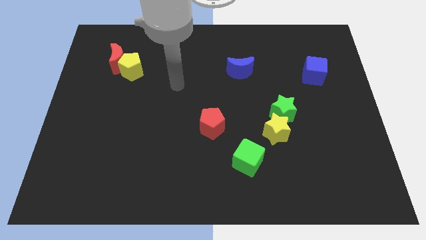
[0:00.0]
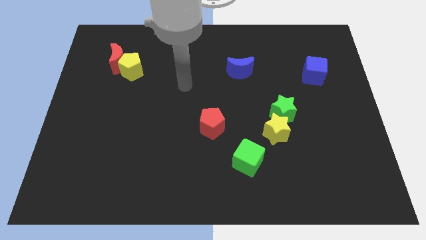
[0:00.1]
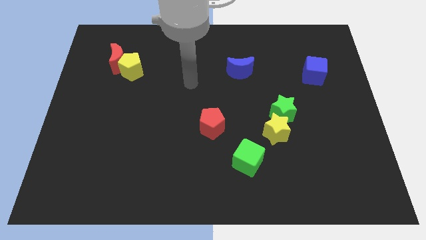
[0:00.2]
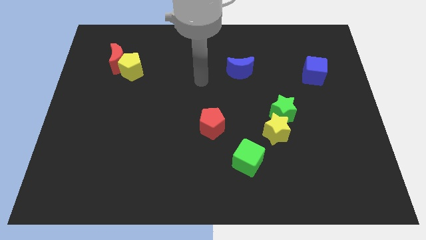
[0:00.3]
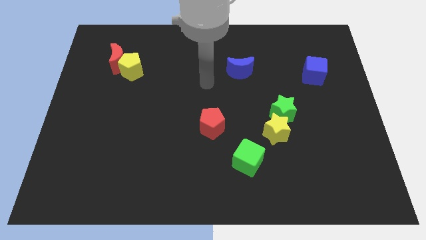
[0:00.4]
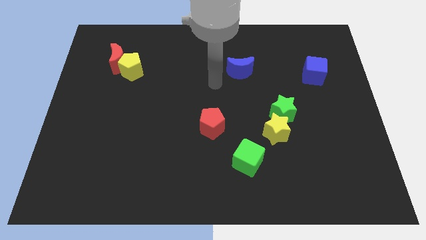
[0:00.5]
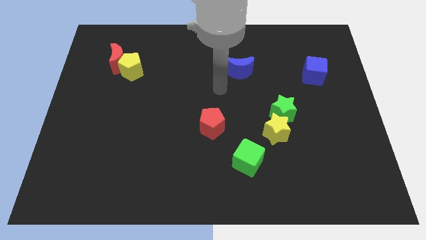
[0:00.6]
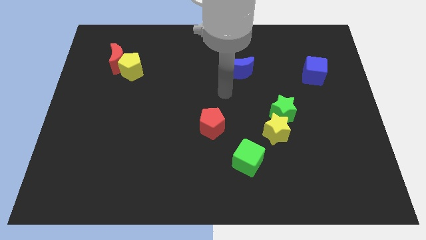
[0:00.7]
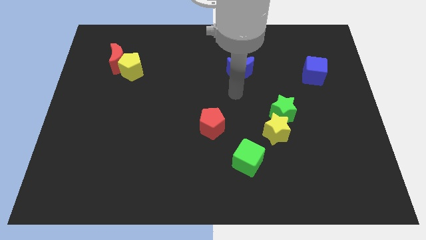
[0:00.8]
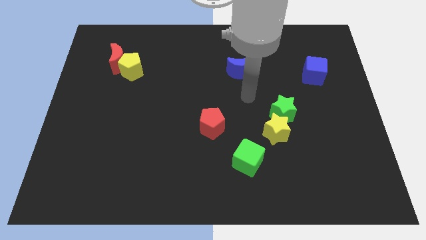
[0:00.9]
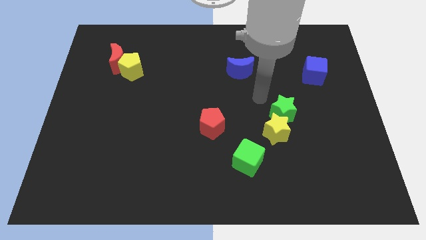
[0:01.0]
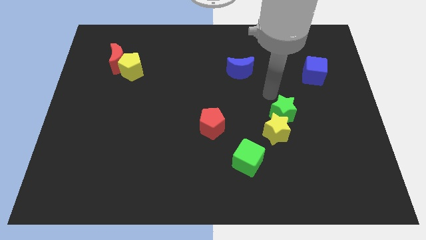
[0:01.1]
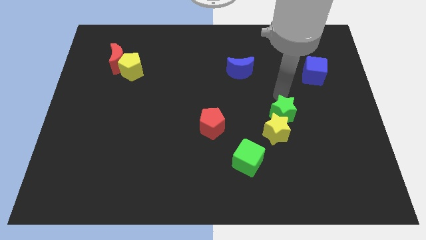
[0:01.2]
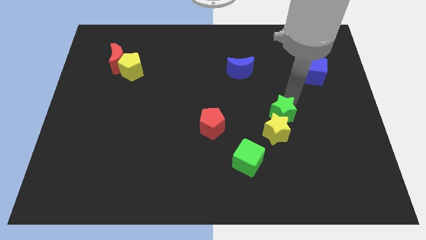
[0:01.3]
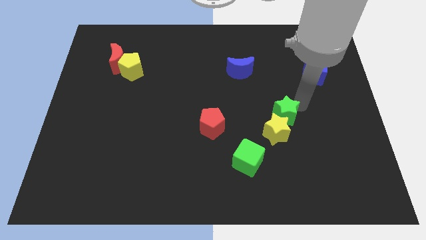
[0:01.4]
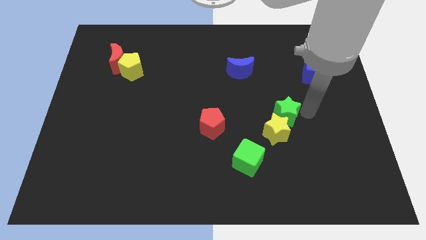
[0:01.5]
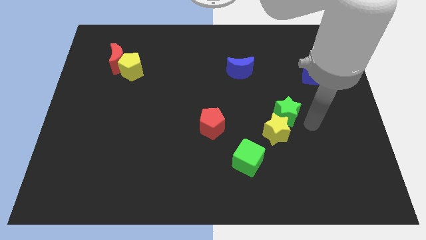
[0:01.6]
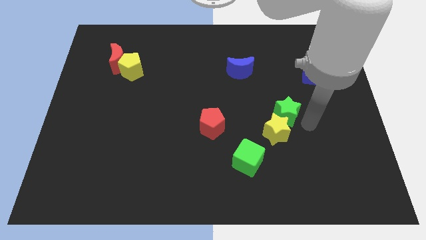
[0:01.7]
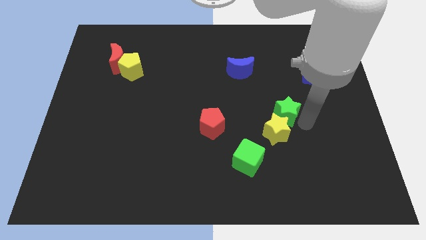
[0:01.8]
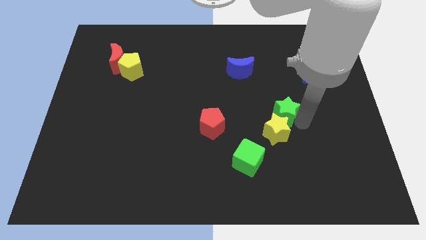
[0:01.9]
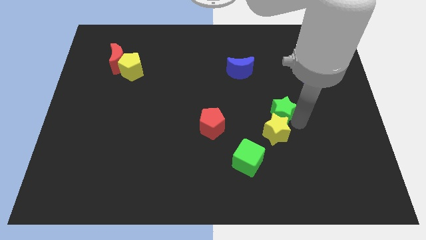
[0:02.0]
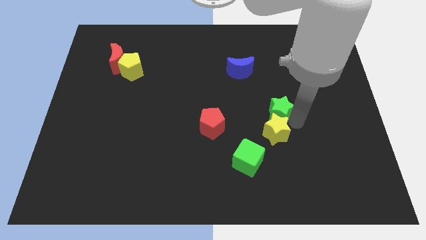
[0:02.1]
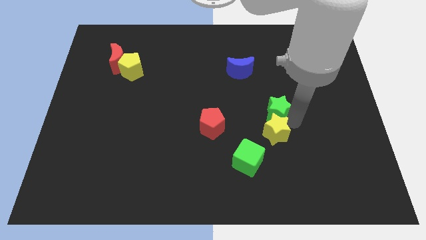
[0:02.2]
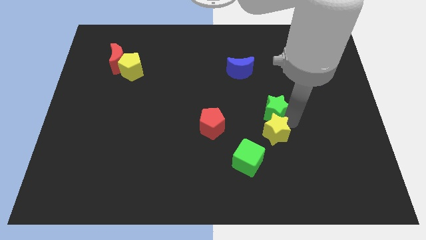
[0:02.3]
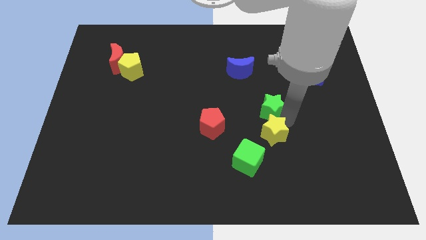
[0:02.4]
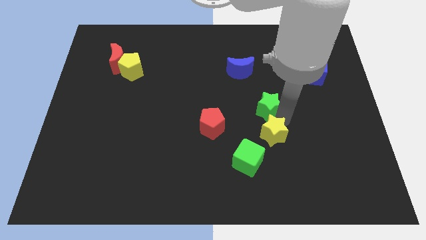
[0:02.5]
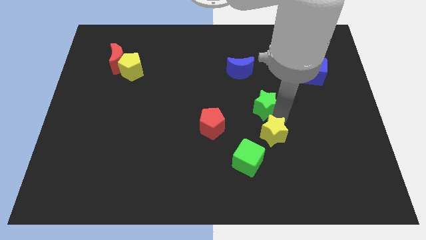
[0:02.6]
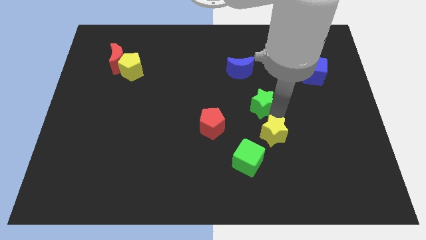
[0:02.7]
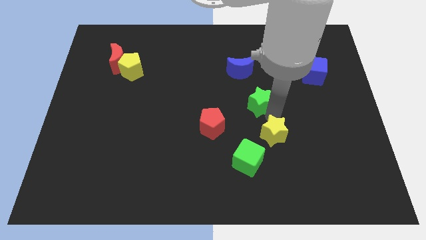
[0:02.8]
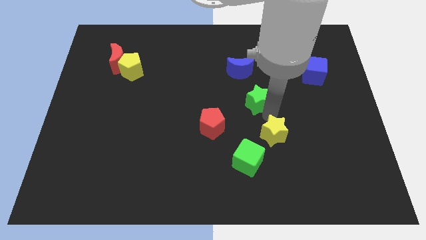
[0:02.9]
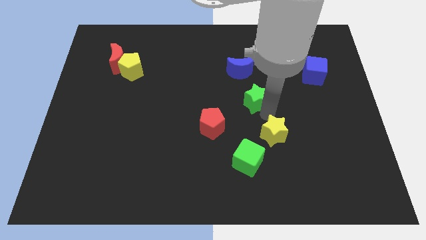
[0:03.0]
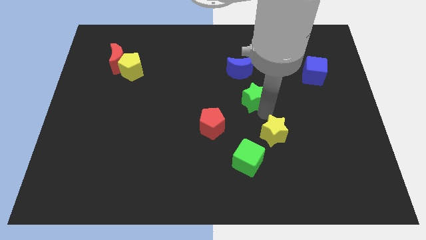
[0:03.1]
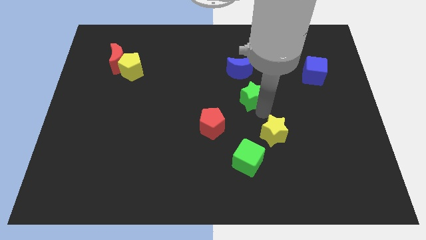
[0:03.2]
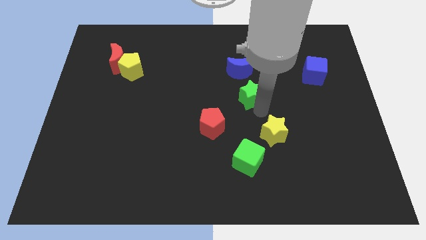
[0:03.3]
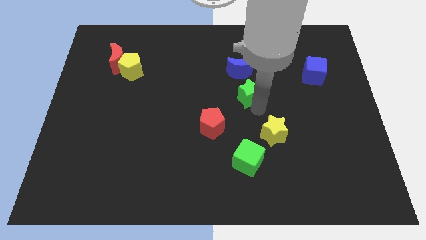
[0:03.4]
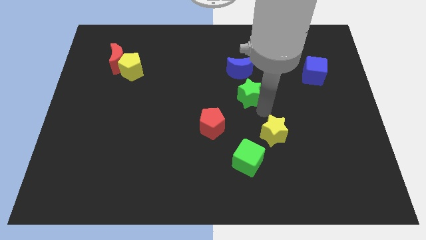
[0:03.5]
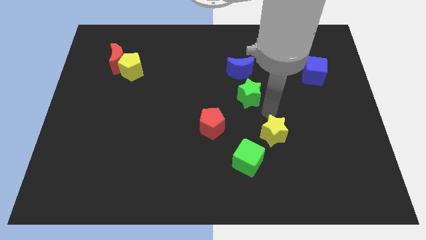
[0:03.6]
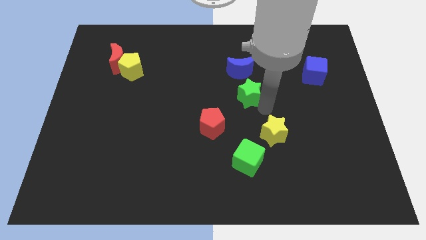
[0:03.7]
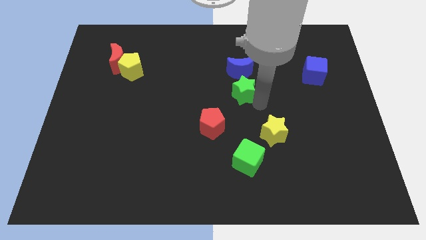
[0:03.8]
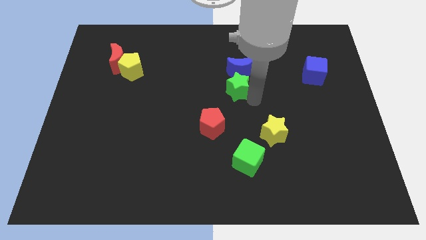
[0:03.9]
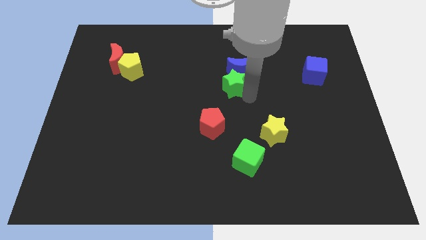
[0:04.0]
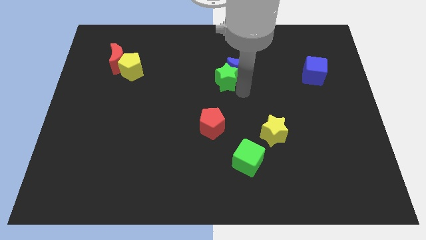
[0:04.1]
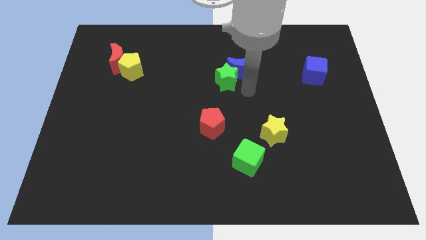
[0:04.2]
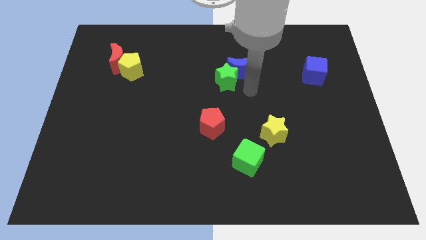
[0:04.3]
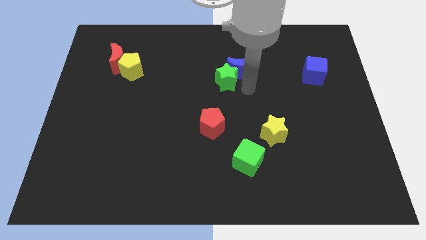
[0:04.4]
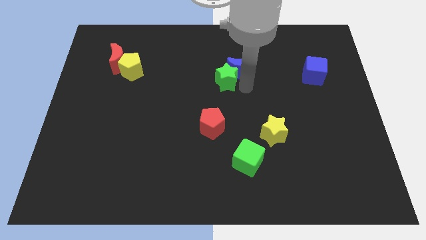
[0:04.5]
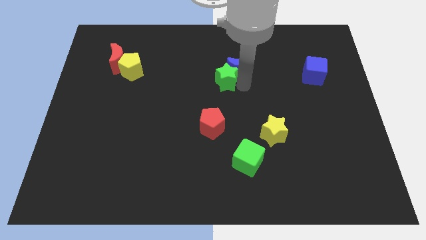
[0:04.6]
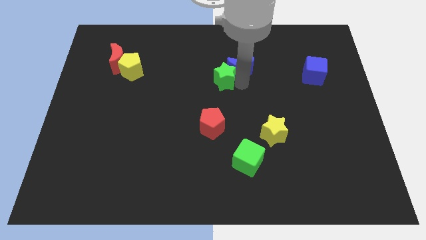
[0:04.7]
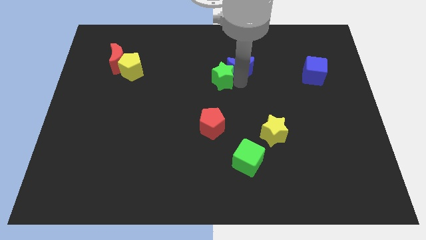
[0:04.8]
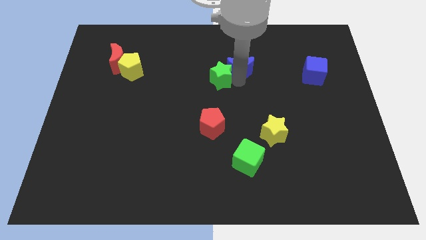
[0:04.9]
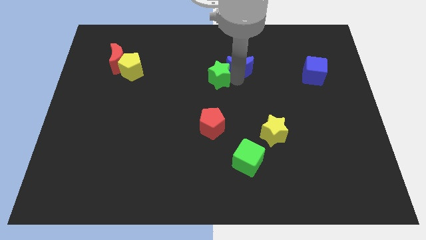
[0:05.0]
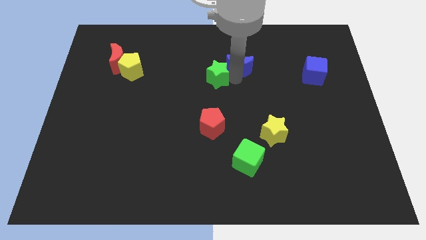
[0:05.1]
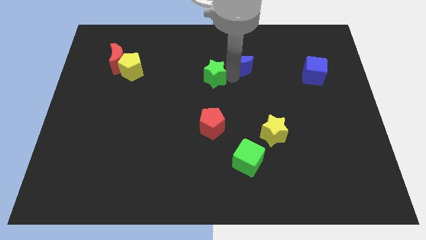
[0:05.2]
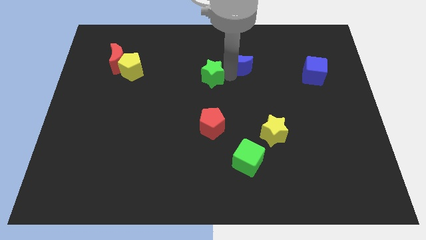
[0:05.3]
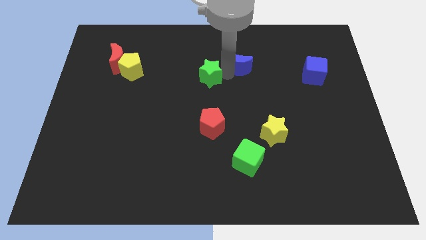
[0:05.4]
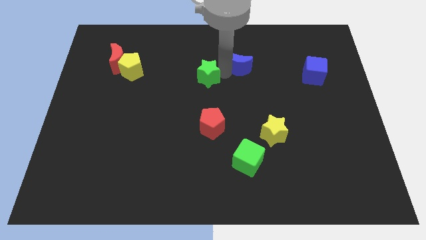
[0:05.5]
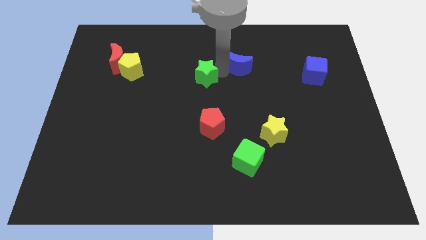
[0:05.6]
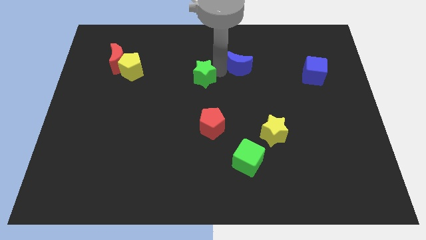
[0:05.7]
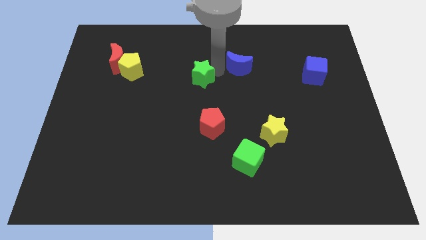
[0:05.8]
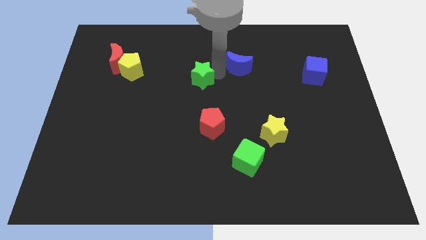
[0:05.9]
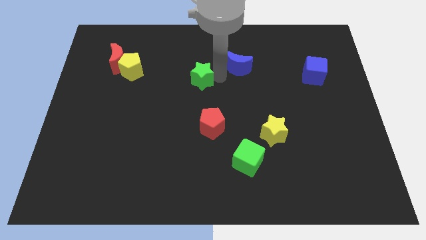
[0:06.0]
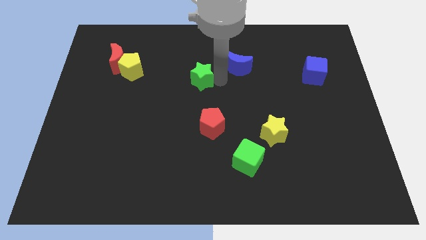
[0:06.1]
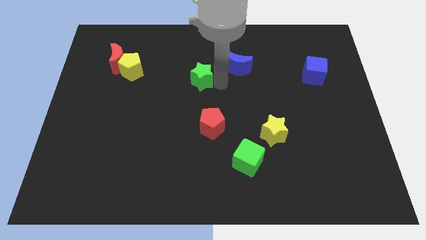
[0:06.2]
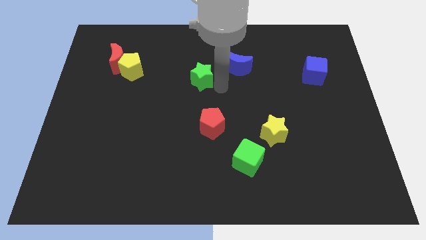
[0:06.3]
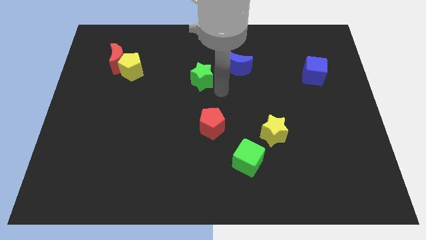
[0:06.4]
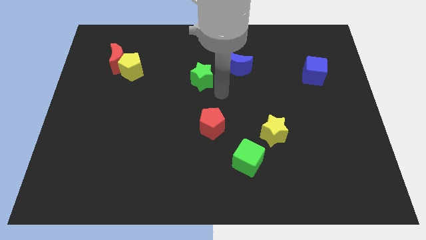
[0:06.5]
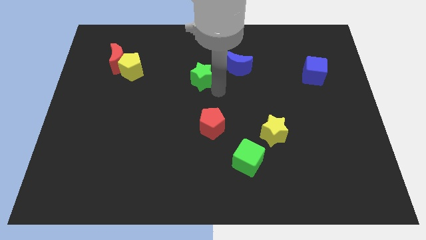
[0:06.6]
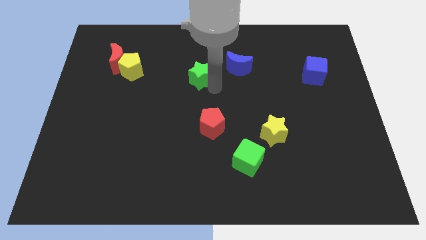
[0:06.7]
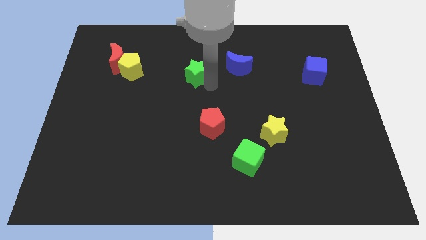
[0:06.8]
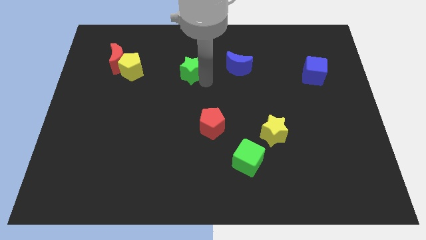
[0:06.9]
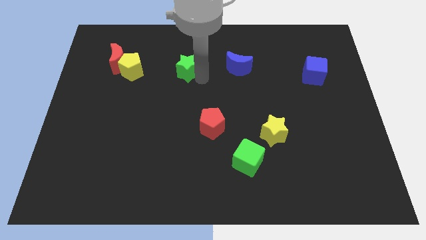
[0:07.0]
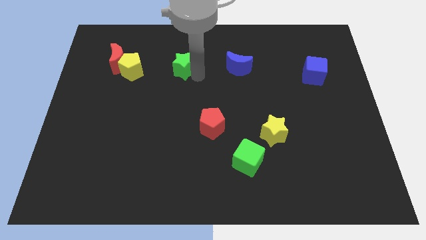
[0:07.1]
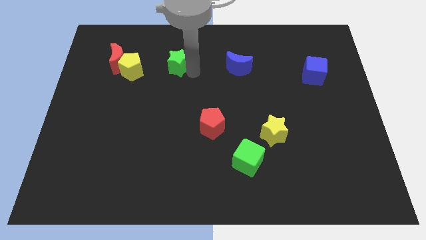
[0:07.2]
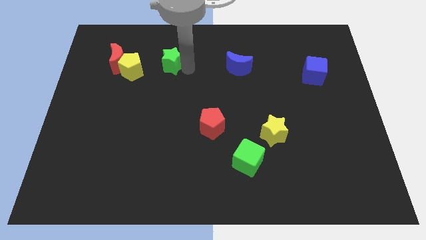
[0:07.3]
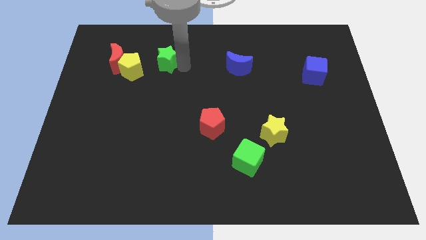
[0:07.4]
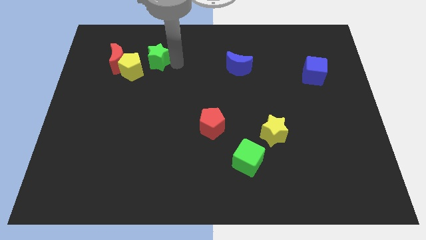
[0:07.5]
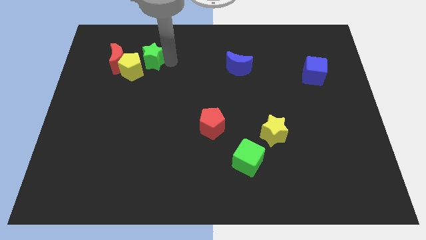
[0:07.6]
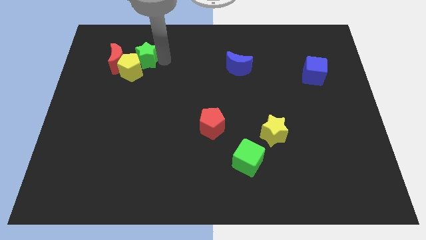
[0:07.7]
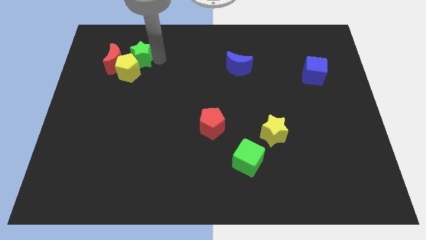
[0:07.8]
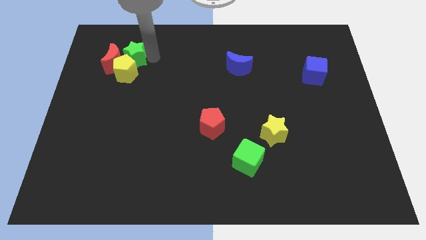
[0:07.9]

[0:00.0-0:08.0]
move the green star to the red moon
